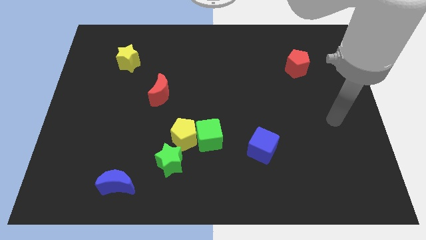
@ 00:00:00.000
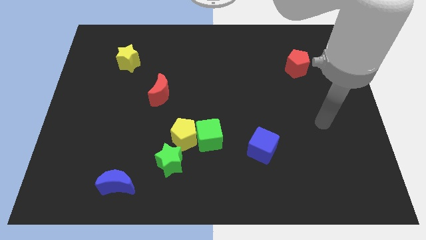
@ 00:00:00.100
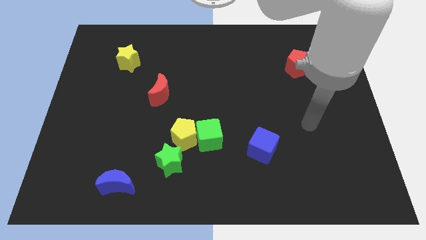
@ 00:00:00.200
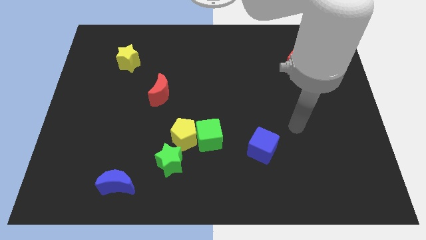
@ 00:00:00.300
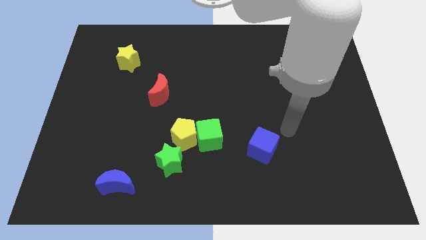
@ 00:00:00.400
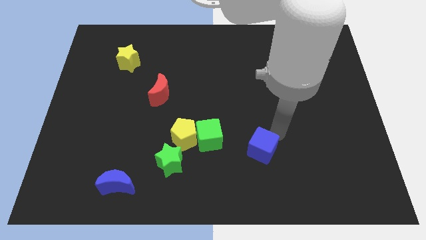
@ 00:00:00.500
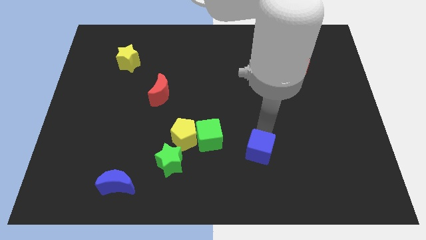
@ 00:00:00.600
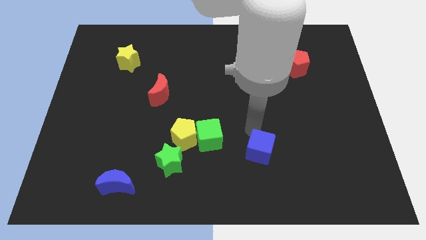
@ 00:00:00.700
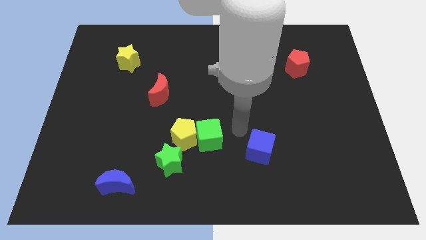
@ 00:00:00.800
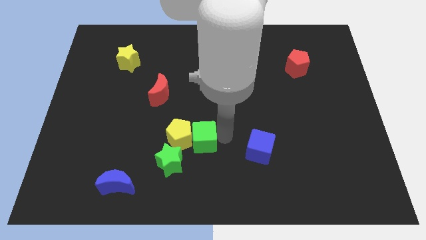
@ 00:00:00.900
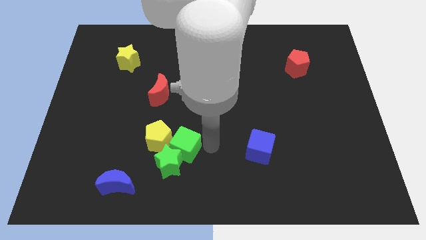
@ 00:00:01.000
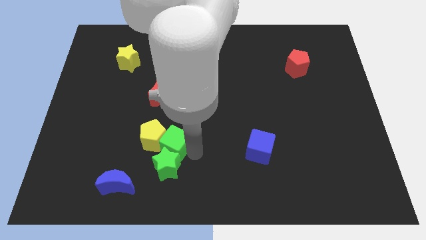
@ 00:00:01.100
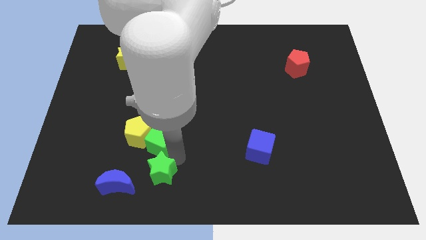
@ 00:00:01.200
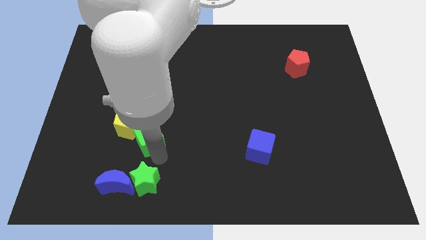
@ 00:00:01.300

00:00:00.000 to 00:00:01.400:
slightly slide the yellow pentagon up and then to the left

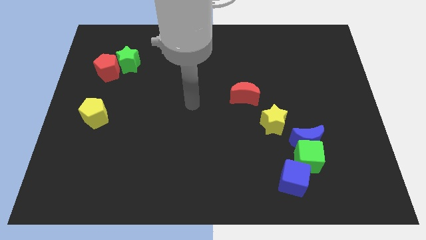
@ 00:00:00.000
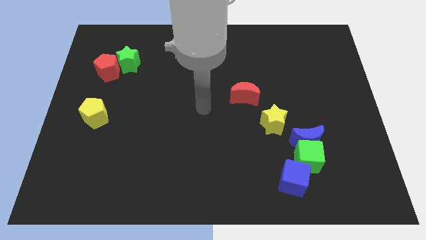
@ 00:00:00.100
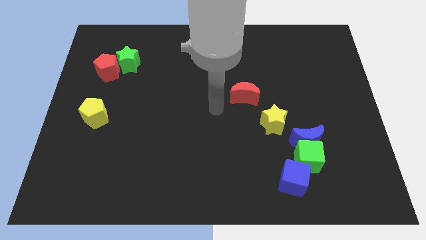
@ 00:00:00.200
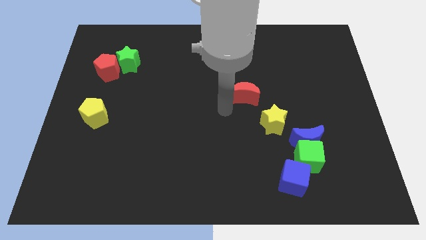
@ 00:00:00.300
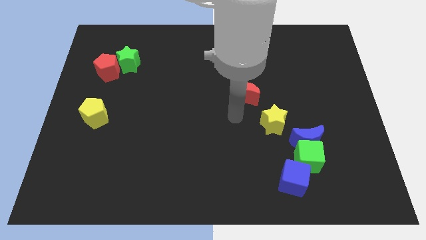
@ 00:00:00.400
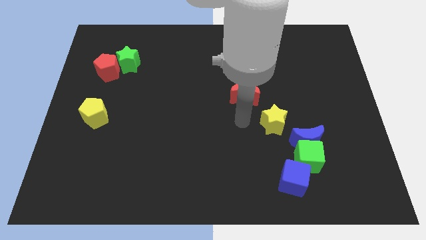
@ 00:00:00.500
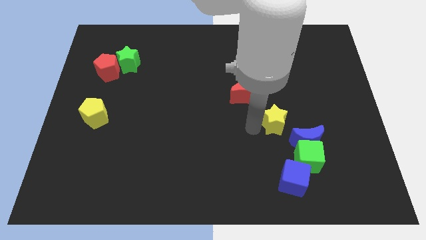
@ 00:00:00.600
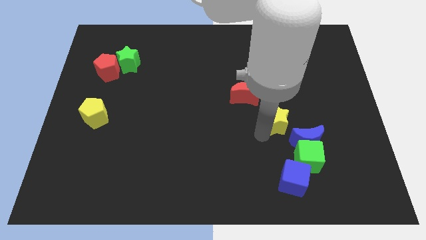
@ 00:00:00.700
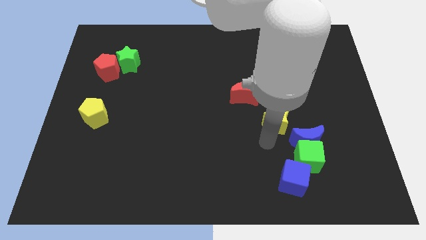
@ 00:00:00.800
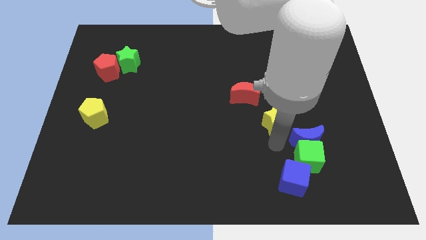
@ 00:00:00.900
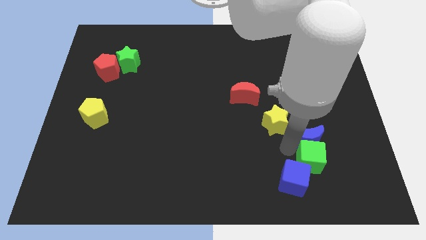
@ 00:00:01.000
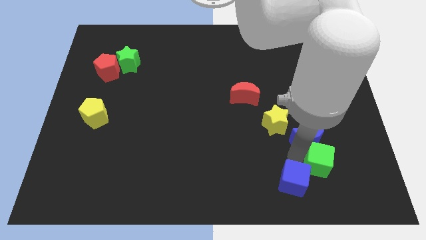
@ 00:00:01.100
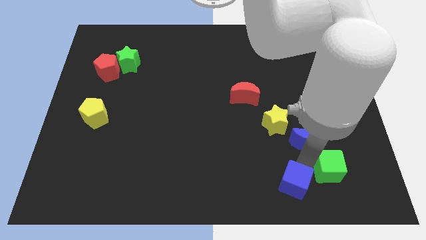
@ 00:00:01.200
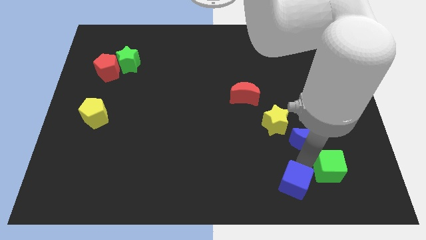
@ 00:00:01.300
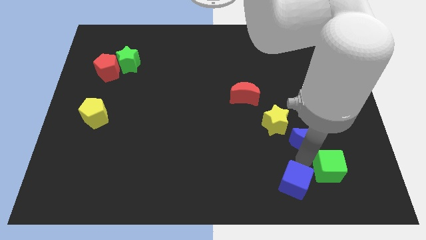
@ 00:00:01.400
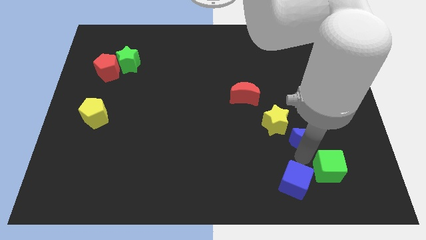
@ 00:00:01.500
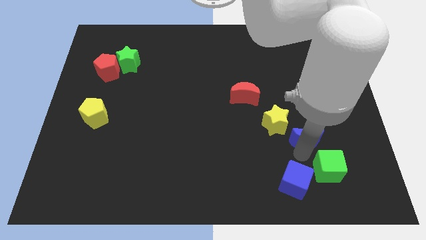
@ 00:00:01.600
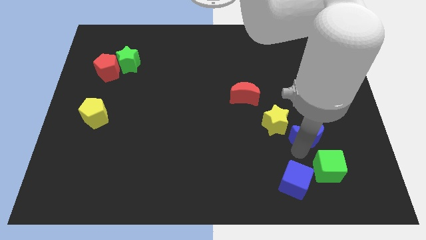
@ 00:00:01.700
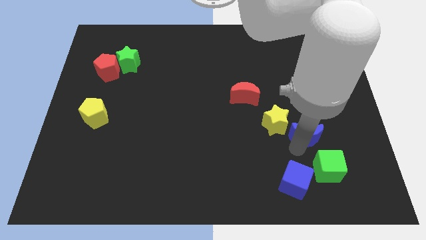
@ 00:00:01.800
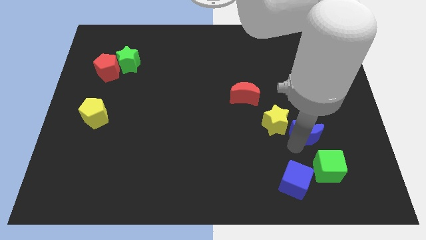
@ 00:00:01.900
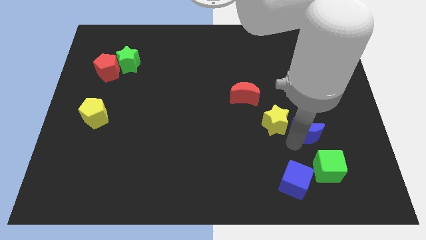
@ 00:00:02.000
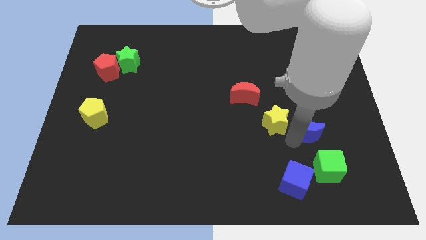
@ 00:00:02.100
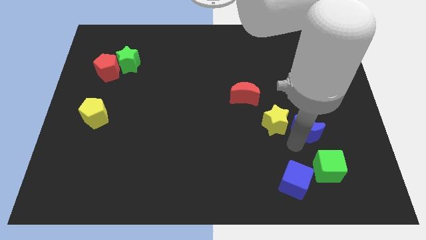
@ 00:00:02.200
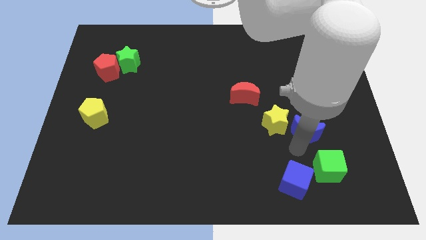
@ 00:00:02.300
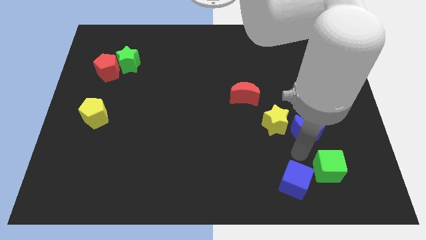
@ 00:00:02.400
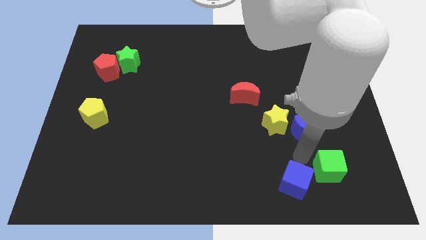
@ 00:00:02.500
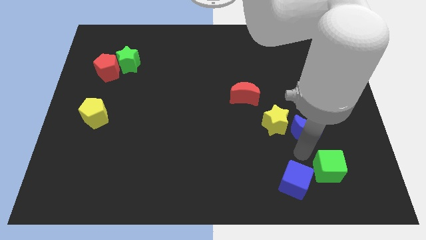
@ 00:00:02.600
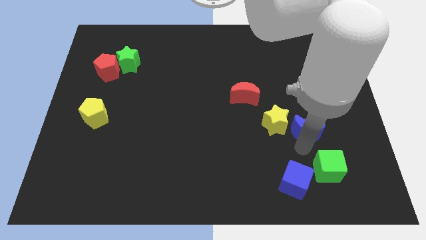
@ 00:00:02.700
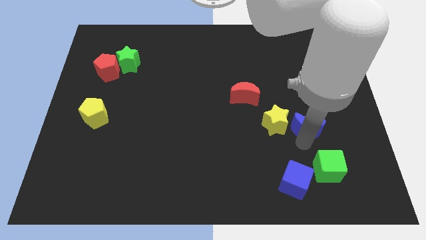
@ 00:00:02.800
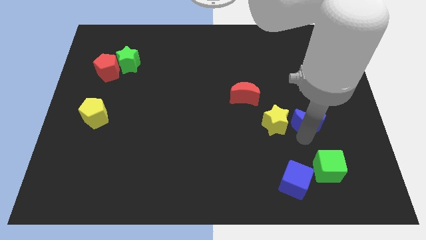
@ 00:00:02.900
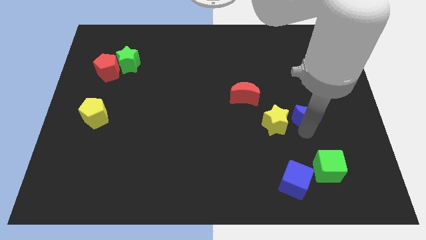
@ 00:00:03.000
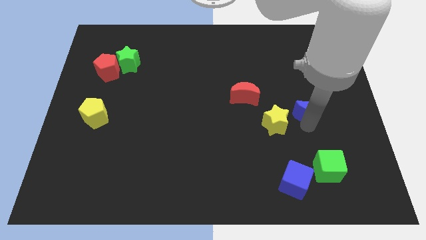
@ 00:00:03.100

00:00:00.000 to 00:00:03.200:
slightly move the blue moon upwards

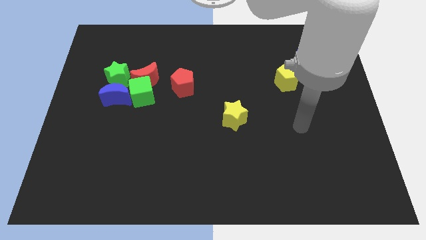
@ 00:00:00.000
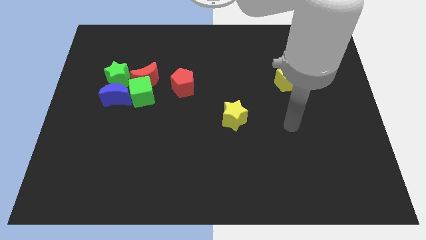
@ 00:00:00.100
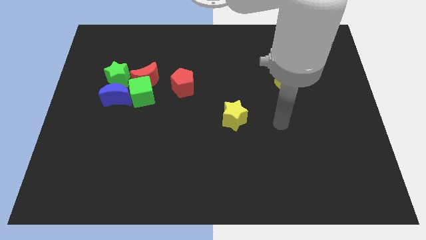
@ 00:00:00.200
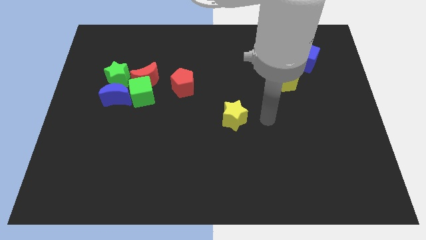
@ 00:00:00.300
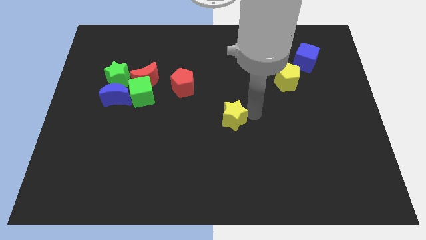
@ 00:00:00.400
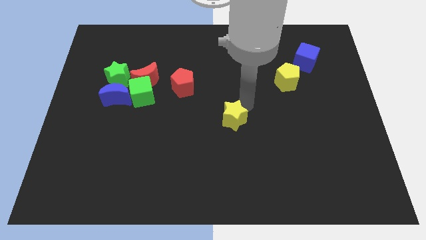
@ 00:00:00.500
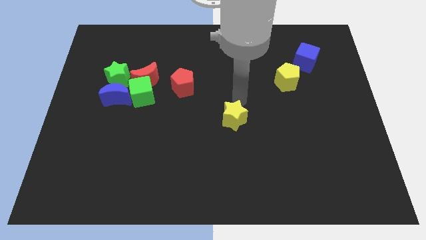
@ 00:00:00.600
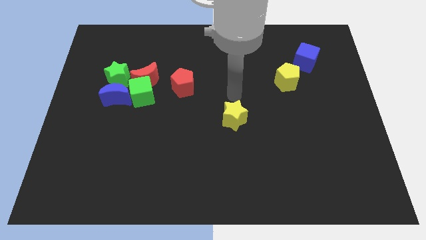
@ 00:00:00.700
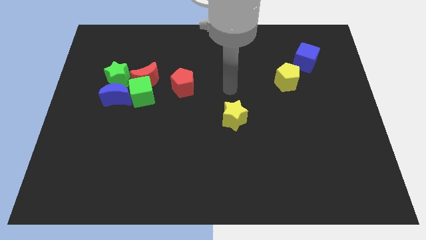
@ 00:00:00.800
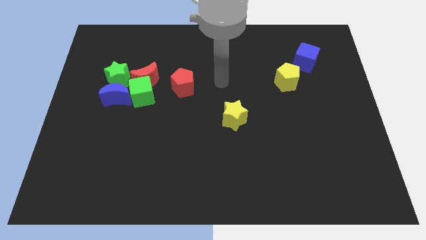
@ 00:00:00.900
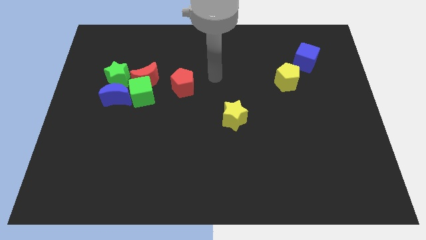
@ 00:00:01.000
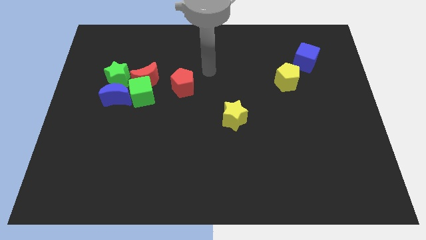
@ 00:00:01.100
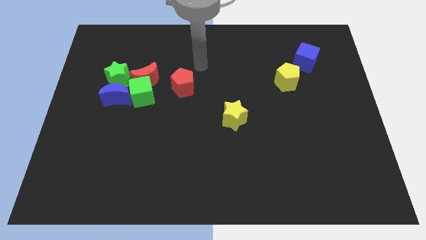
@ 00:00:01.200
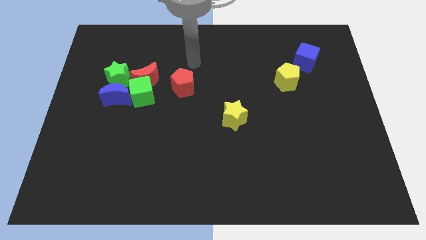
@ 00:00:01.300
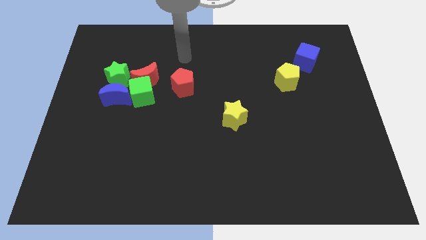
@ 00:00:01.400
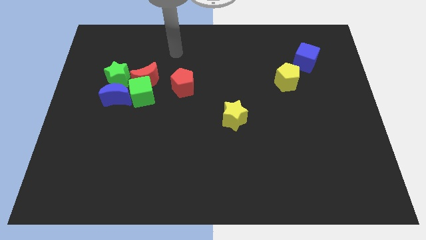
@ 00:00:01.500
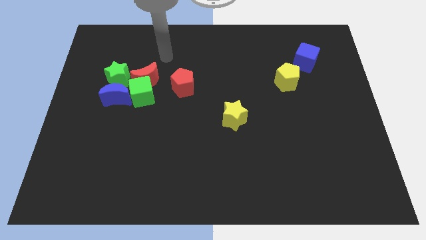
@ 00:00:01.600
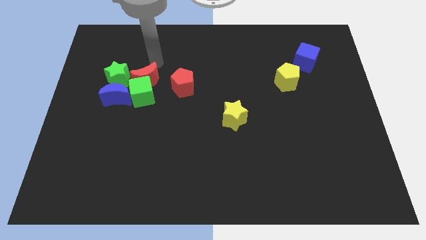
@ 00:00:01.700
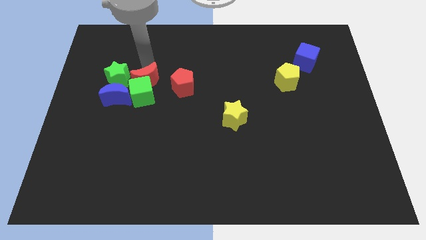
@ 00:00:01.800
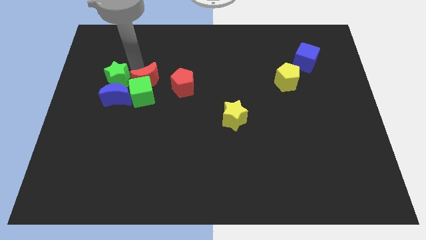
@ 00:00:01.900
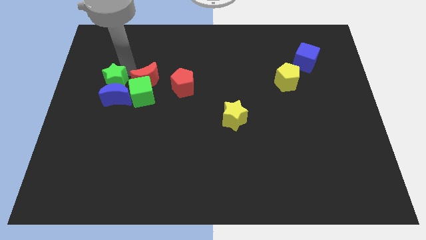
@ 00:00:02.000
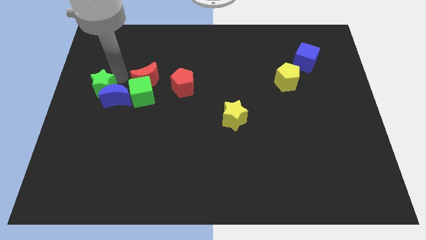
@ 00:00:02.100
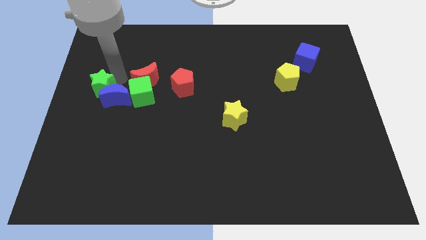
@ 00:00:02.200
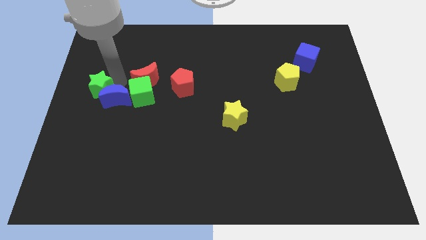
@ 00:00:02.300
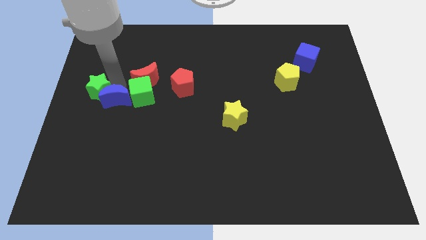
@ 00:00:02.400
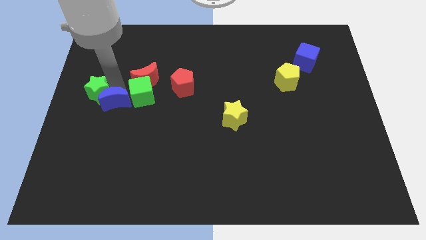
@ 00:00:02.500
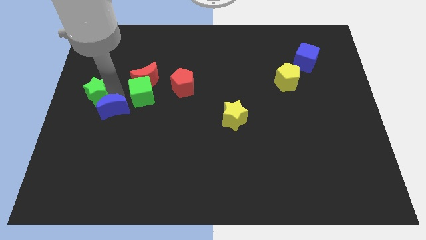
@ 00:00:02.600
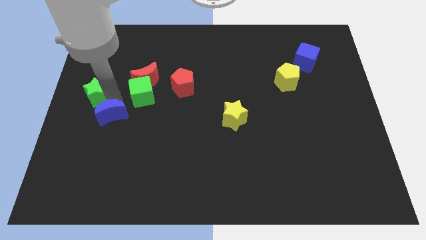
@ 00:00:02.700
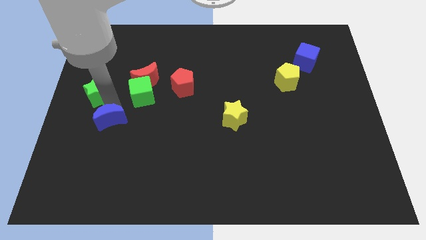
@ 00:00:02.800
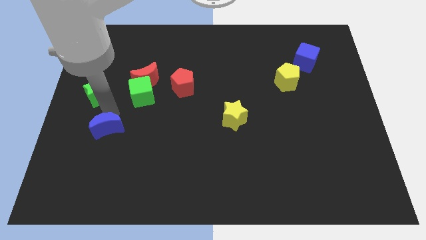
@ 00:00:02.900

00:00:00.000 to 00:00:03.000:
slide the blue moon a little downwards

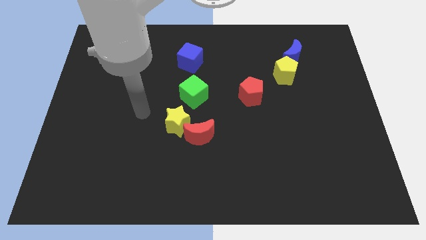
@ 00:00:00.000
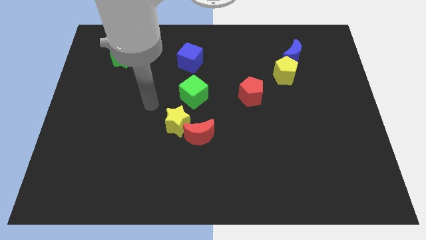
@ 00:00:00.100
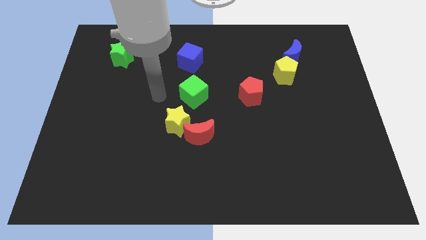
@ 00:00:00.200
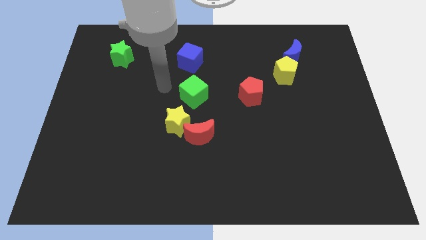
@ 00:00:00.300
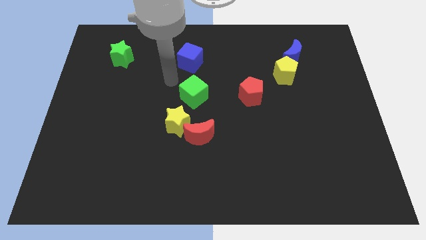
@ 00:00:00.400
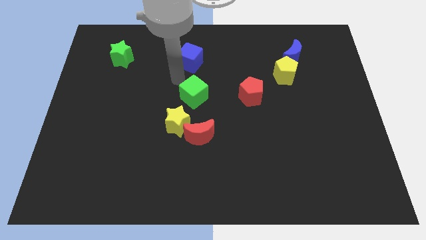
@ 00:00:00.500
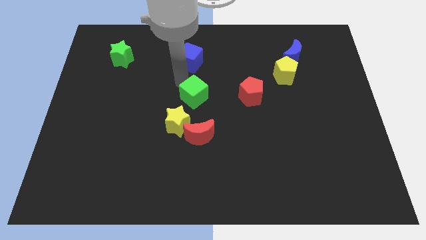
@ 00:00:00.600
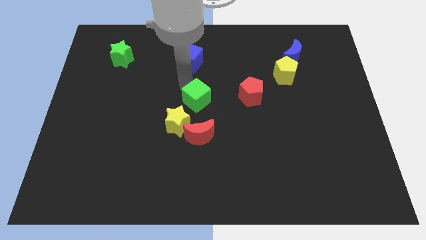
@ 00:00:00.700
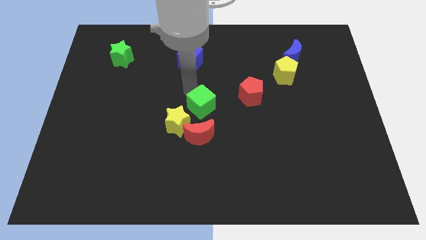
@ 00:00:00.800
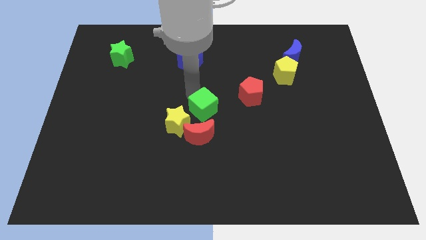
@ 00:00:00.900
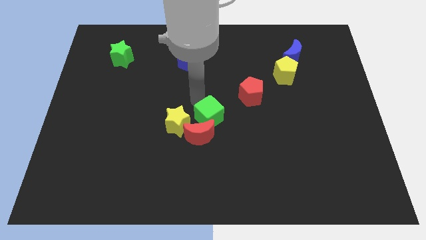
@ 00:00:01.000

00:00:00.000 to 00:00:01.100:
push the green cube diagonally downwards and right somewhat
